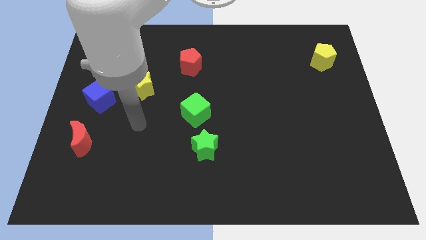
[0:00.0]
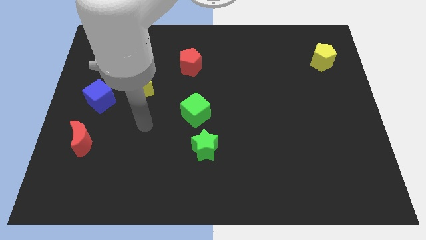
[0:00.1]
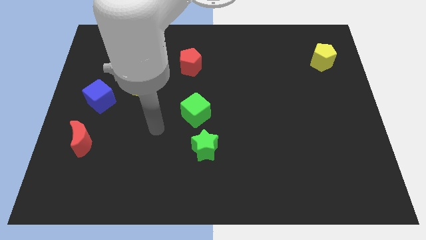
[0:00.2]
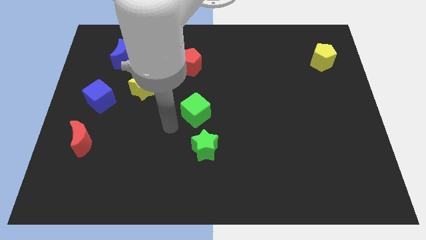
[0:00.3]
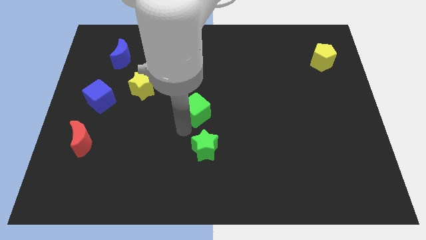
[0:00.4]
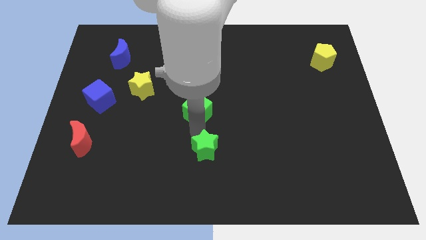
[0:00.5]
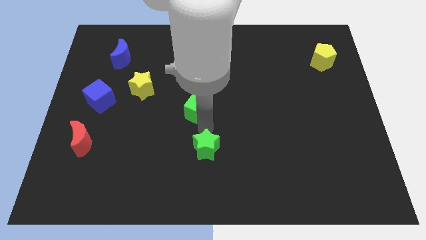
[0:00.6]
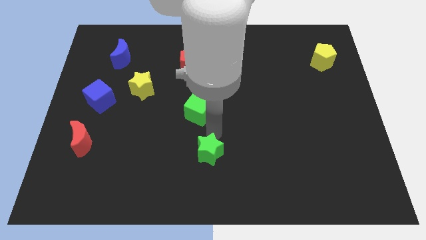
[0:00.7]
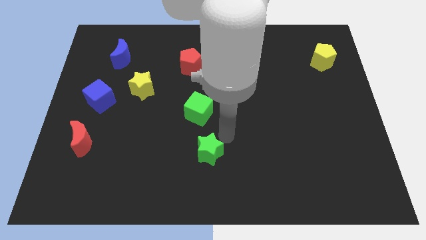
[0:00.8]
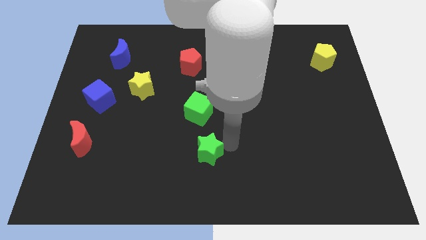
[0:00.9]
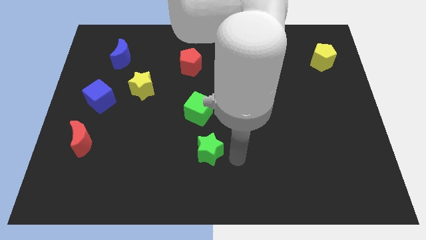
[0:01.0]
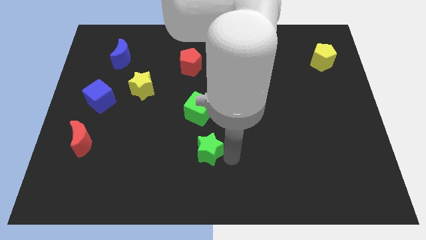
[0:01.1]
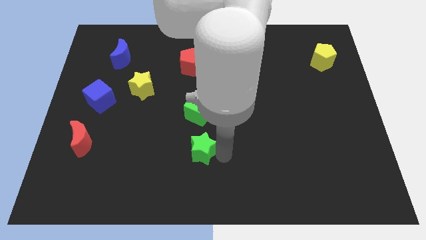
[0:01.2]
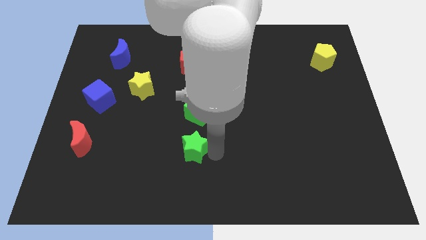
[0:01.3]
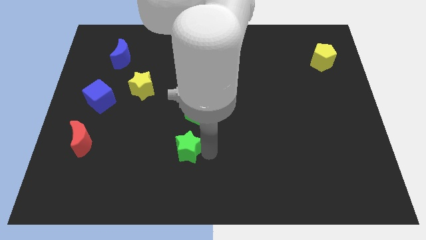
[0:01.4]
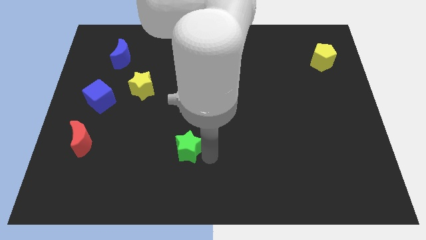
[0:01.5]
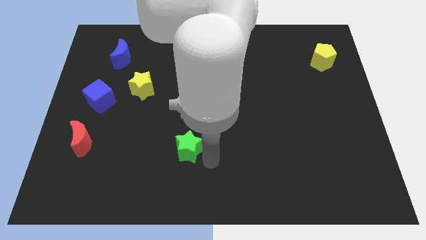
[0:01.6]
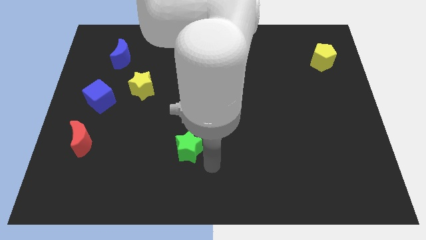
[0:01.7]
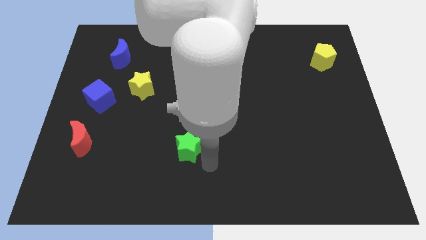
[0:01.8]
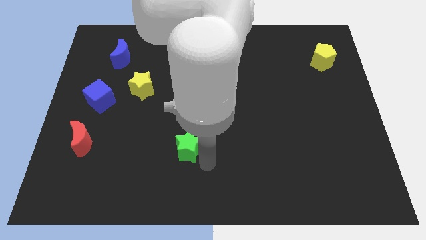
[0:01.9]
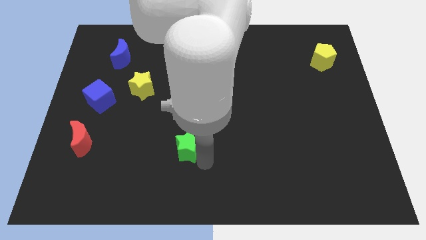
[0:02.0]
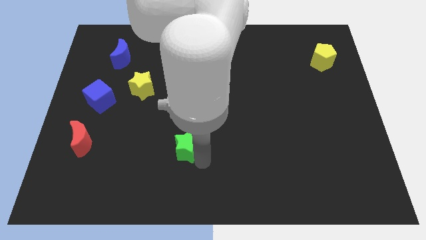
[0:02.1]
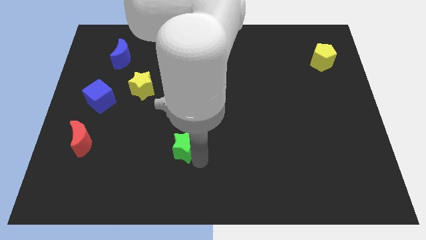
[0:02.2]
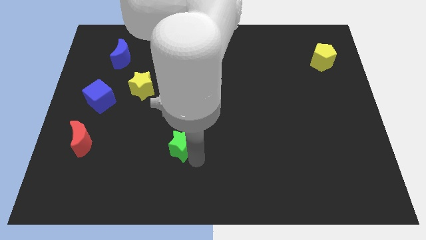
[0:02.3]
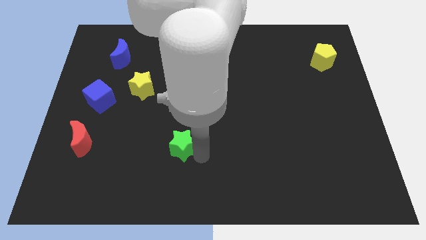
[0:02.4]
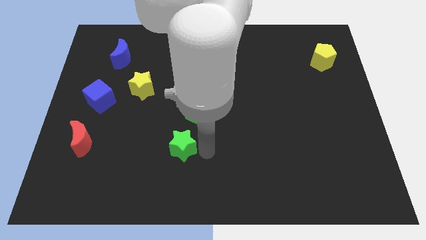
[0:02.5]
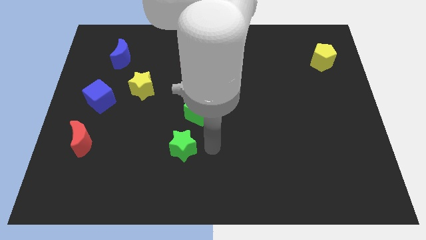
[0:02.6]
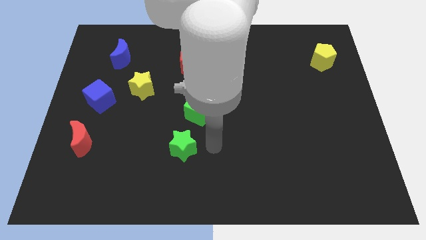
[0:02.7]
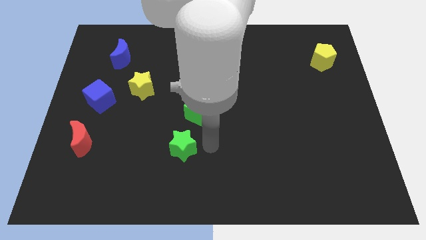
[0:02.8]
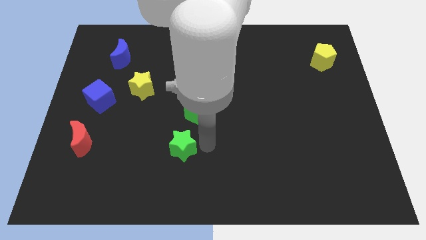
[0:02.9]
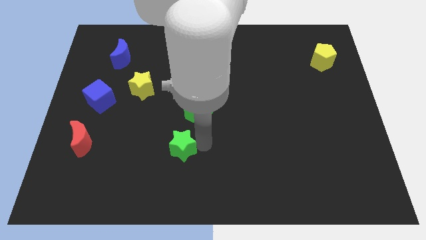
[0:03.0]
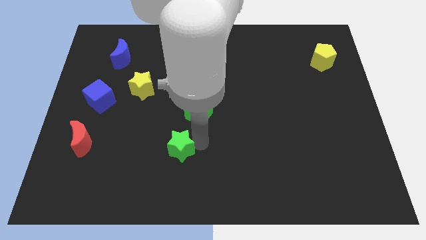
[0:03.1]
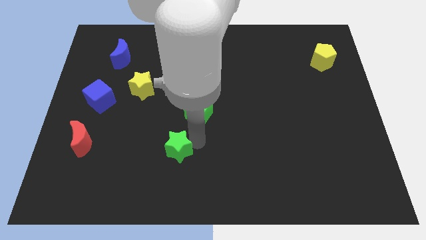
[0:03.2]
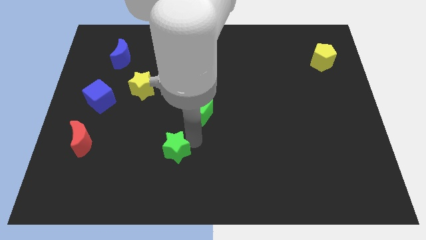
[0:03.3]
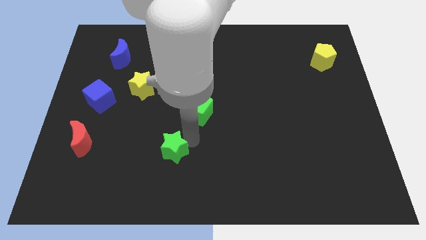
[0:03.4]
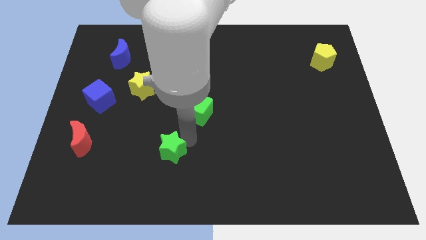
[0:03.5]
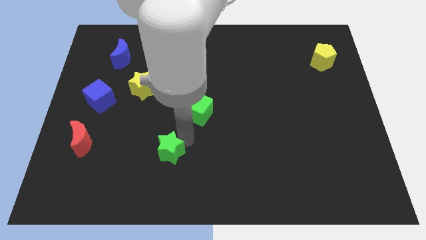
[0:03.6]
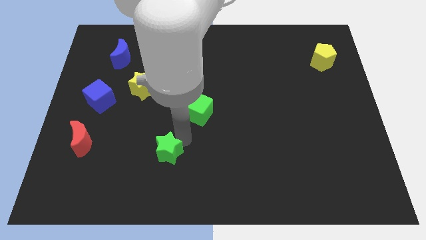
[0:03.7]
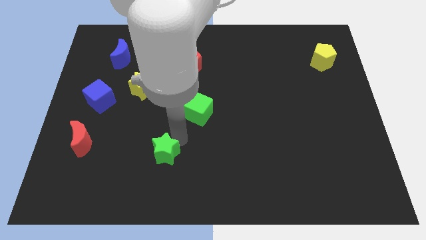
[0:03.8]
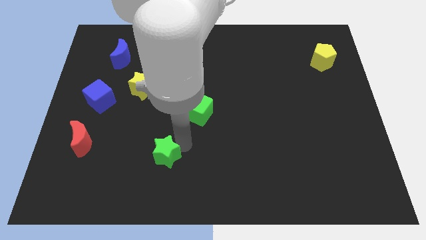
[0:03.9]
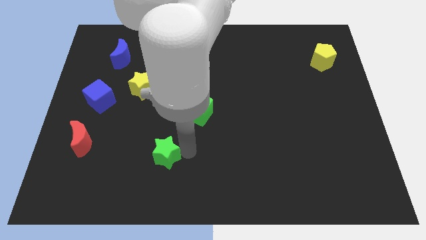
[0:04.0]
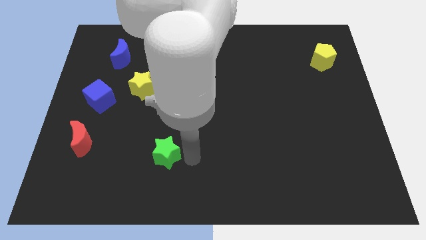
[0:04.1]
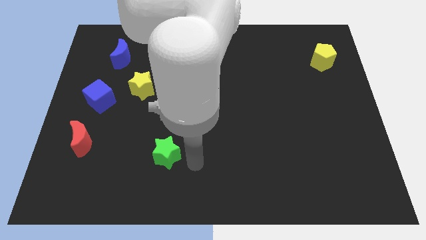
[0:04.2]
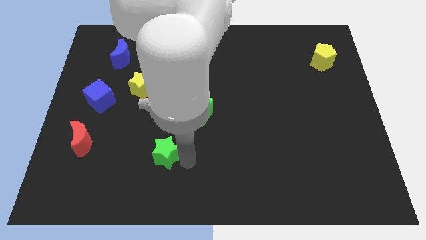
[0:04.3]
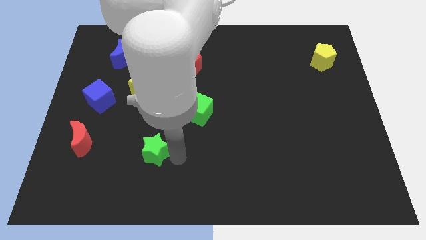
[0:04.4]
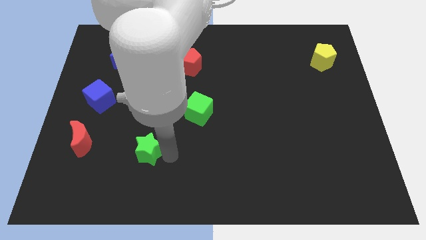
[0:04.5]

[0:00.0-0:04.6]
put the green star just right of the red moon

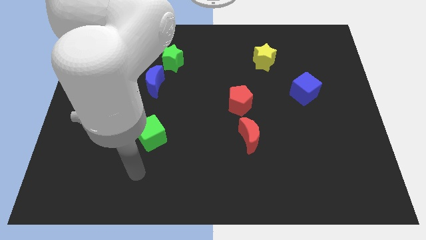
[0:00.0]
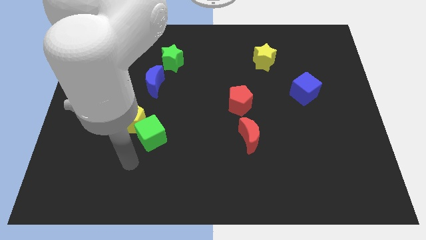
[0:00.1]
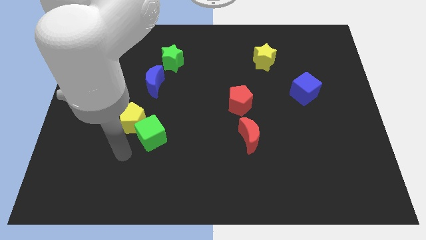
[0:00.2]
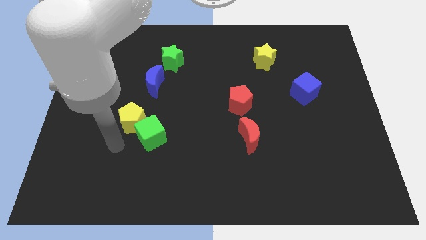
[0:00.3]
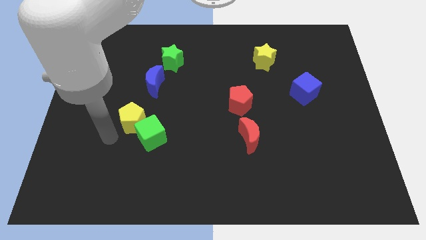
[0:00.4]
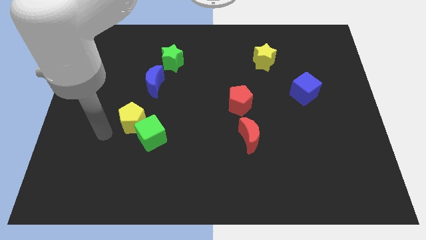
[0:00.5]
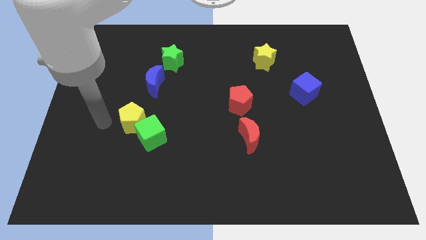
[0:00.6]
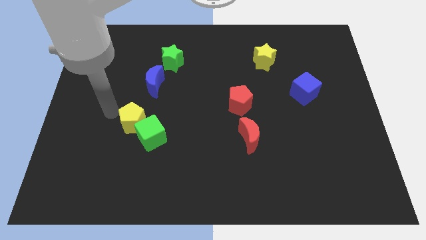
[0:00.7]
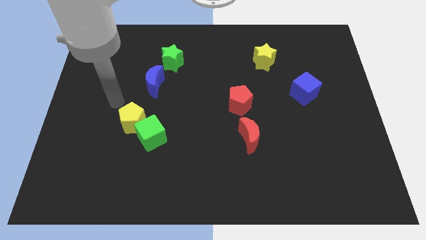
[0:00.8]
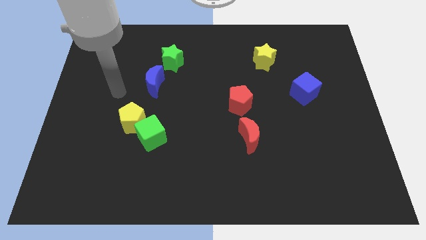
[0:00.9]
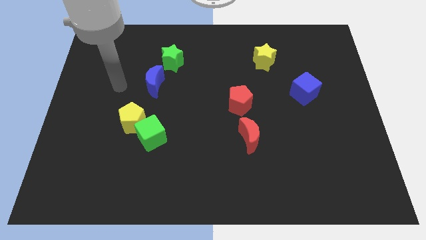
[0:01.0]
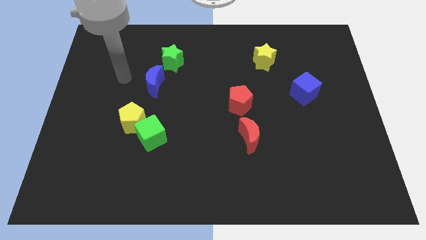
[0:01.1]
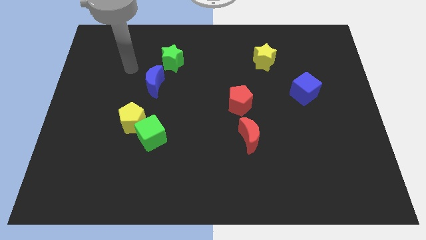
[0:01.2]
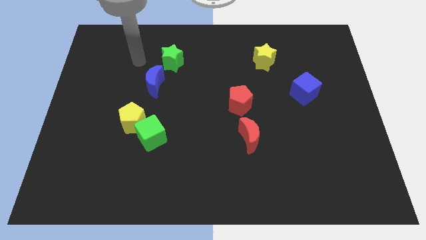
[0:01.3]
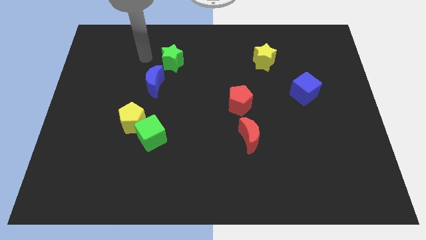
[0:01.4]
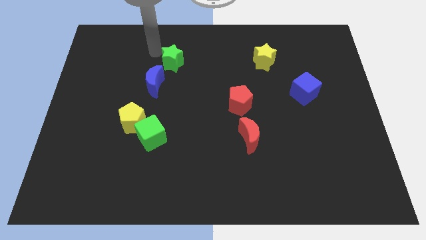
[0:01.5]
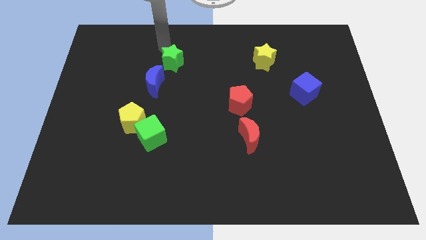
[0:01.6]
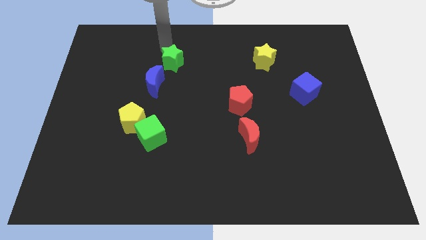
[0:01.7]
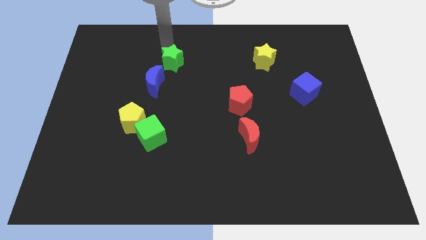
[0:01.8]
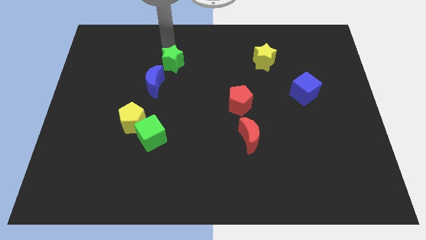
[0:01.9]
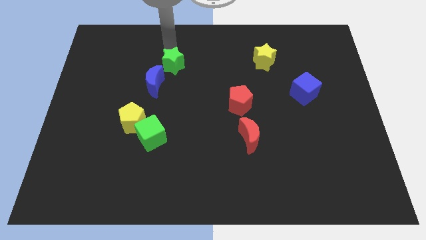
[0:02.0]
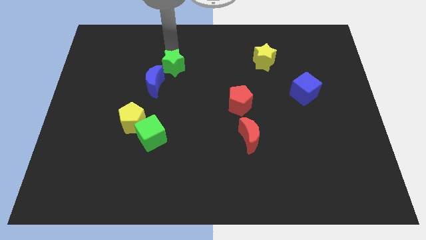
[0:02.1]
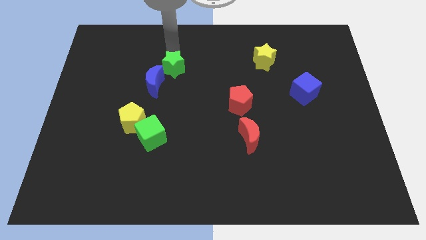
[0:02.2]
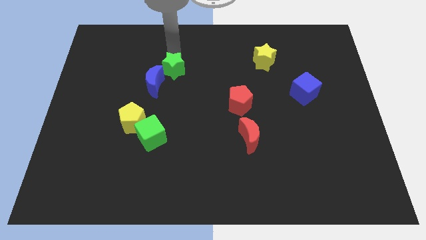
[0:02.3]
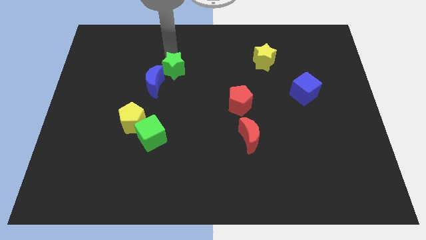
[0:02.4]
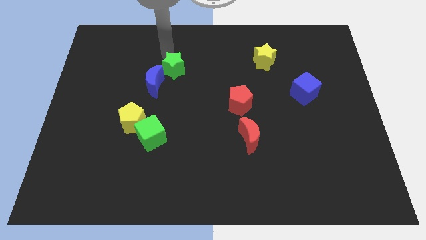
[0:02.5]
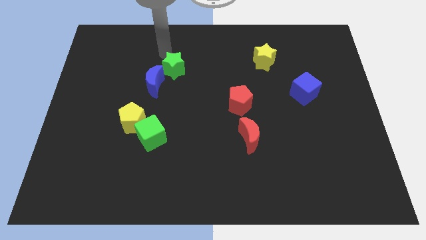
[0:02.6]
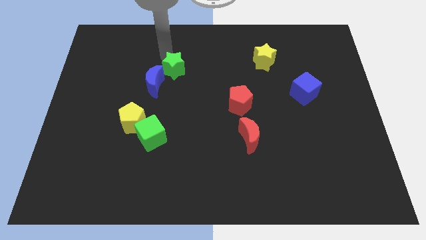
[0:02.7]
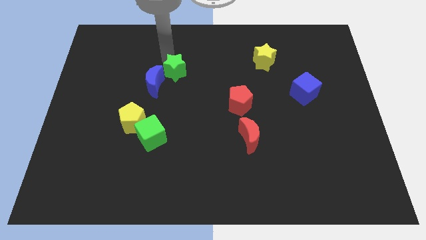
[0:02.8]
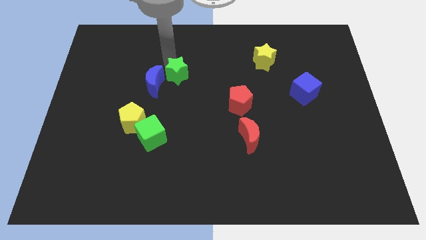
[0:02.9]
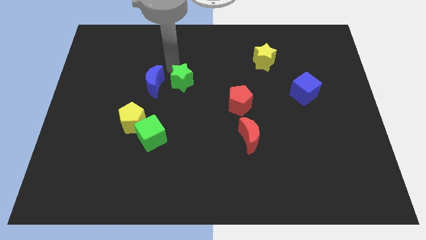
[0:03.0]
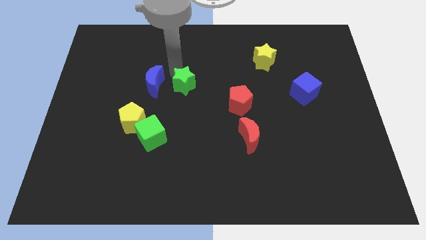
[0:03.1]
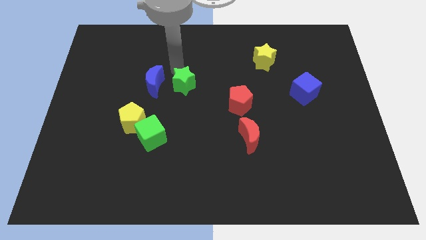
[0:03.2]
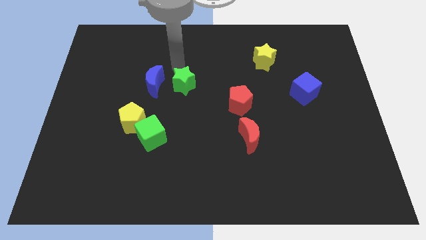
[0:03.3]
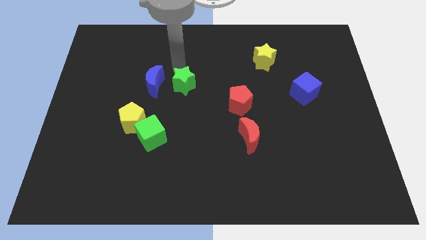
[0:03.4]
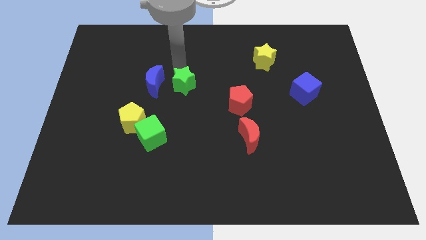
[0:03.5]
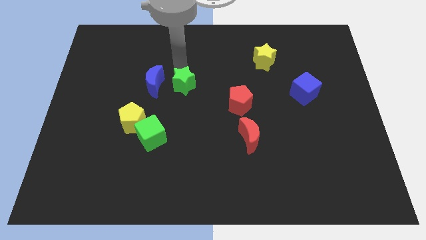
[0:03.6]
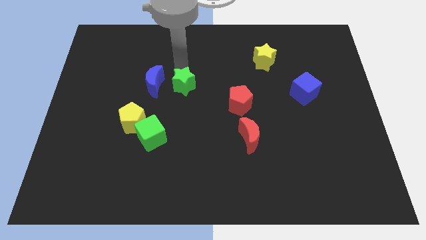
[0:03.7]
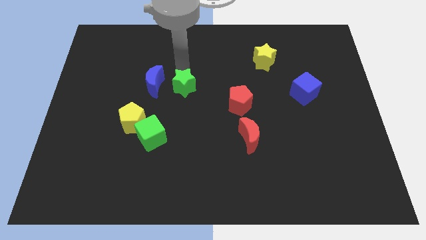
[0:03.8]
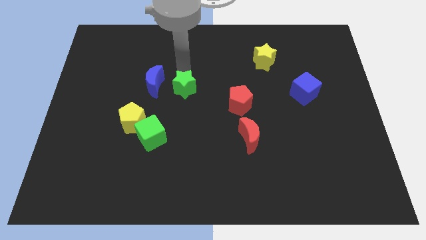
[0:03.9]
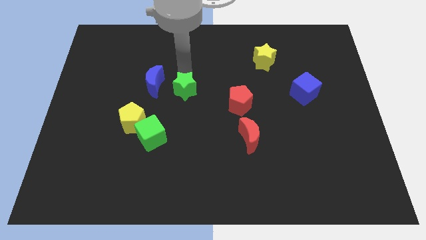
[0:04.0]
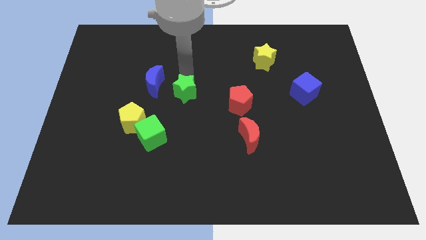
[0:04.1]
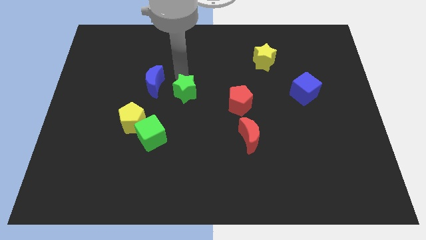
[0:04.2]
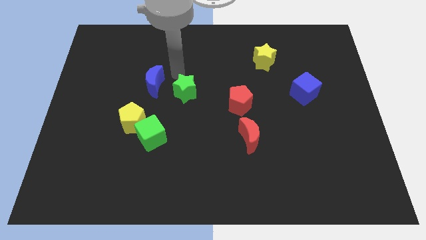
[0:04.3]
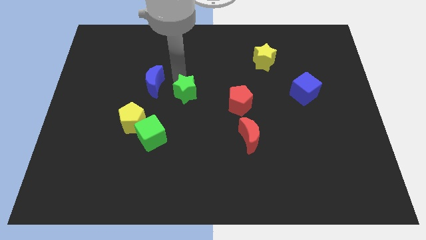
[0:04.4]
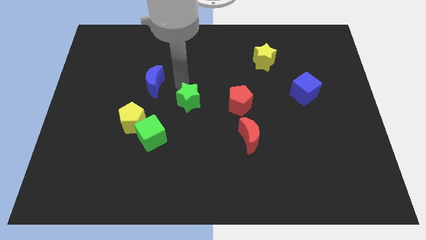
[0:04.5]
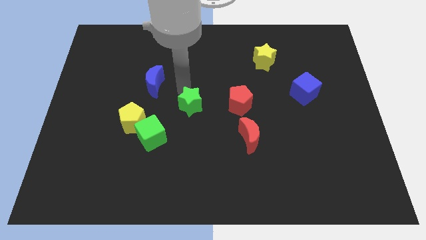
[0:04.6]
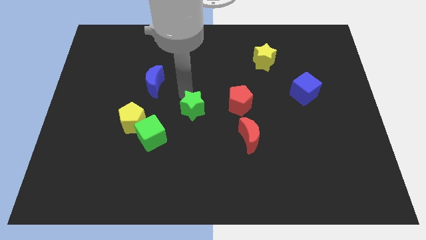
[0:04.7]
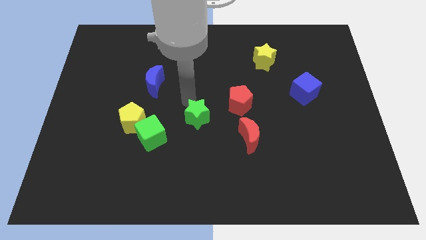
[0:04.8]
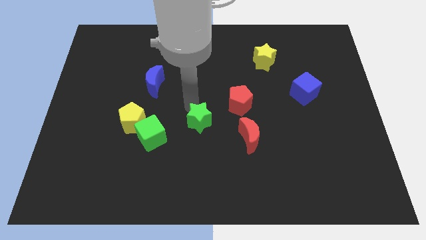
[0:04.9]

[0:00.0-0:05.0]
put the green star to the left of the red moon
